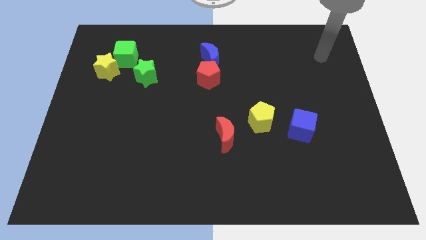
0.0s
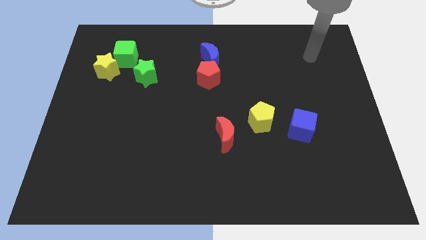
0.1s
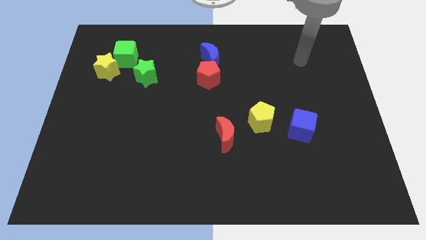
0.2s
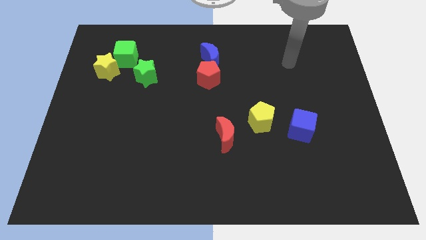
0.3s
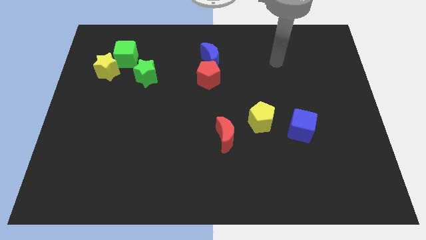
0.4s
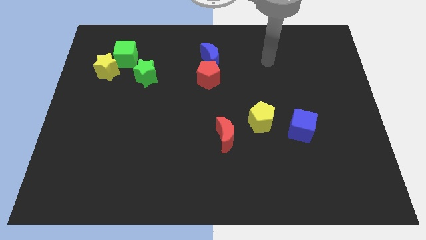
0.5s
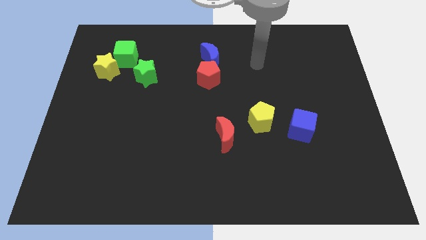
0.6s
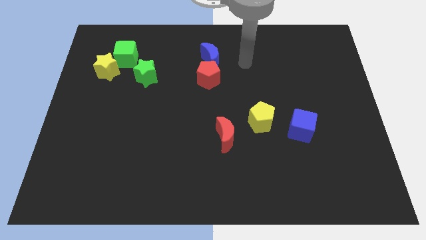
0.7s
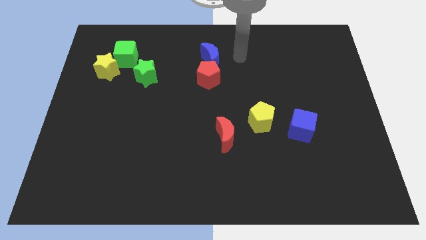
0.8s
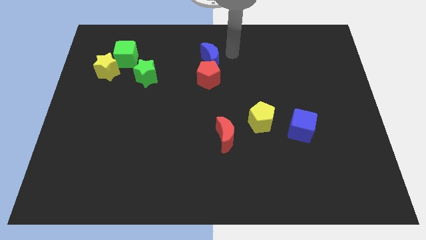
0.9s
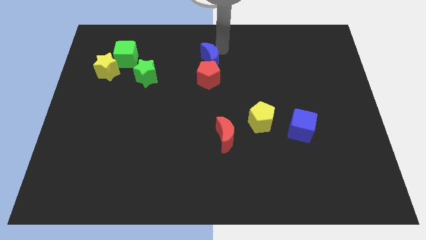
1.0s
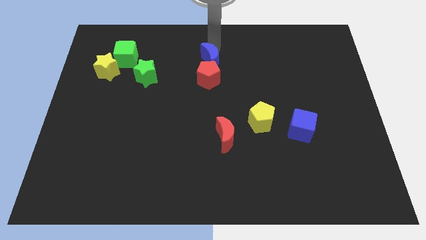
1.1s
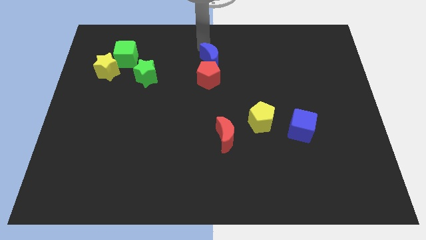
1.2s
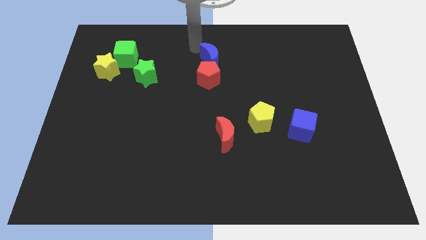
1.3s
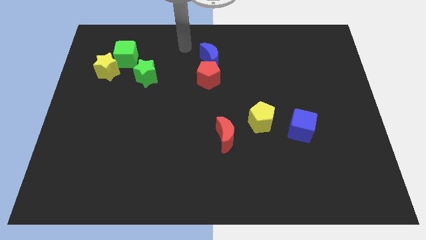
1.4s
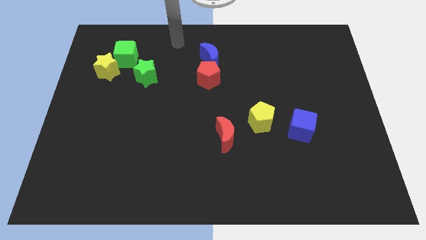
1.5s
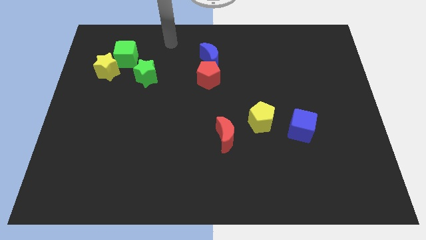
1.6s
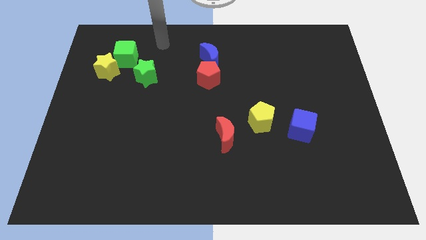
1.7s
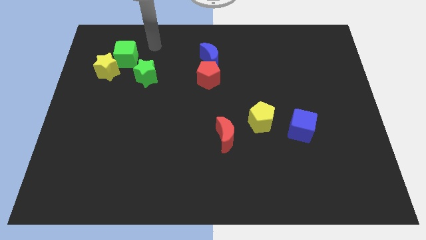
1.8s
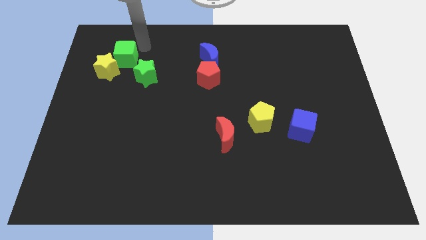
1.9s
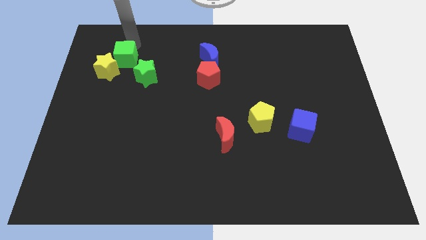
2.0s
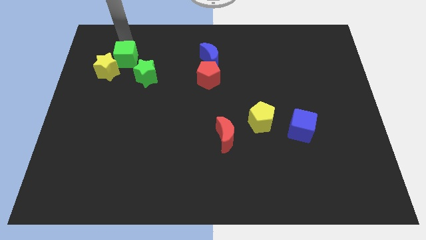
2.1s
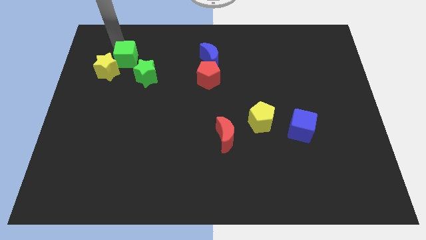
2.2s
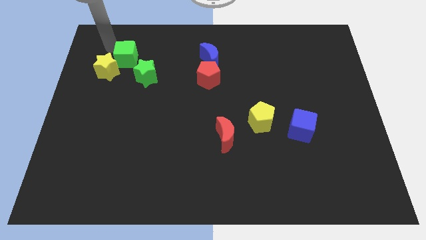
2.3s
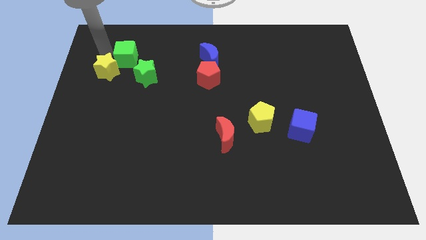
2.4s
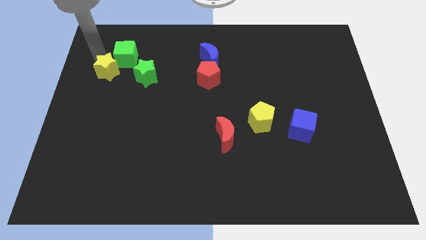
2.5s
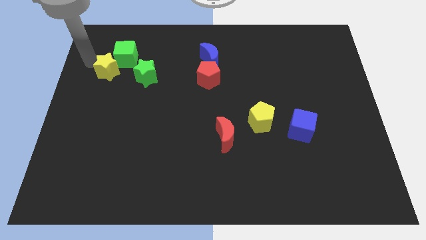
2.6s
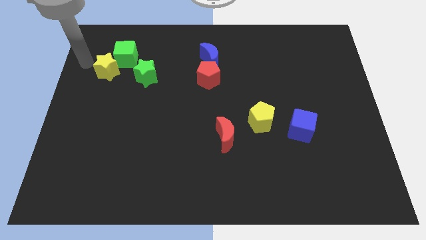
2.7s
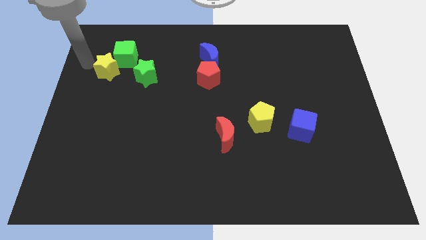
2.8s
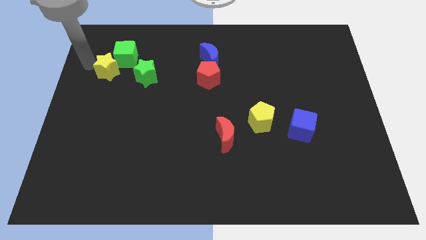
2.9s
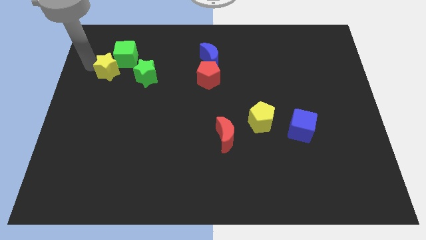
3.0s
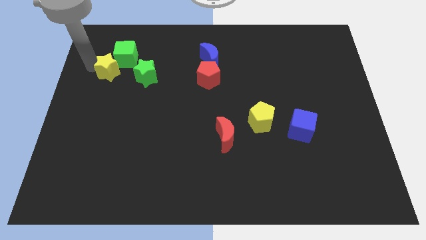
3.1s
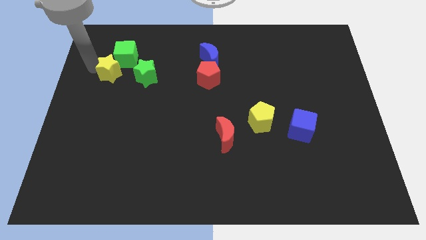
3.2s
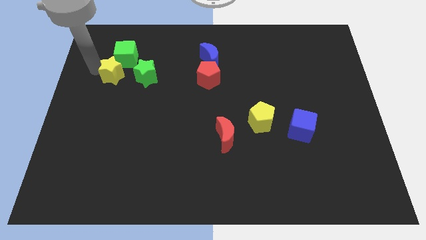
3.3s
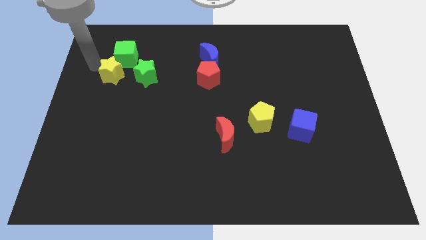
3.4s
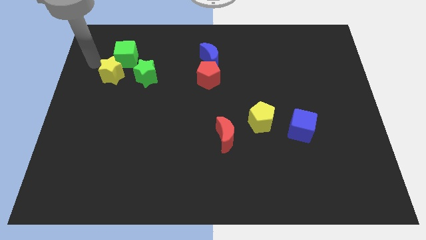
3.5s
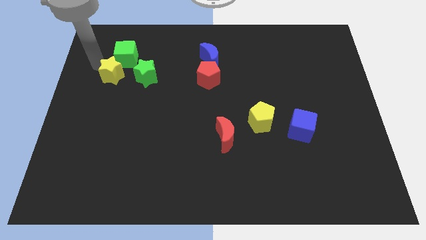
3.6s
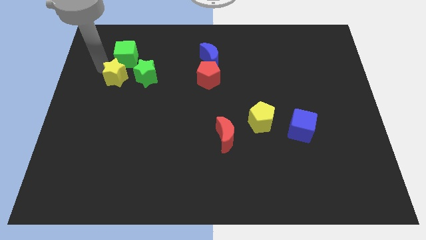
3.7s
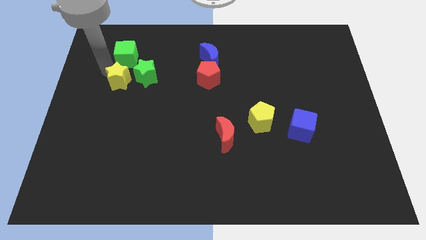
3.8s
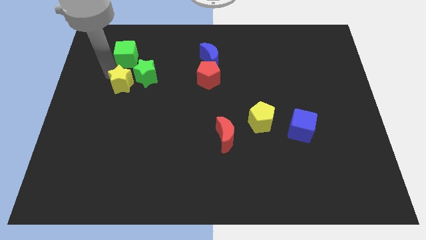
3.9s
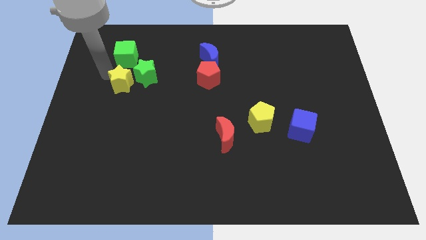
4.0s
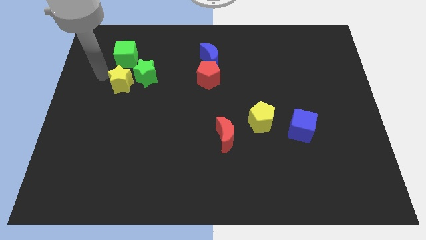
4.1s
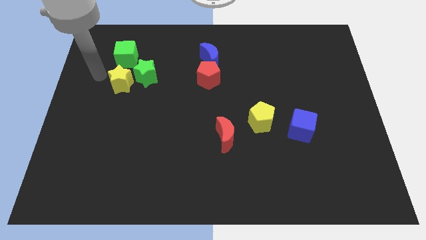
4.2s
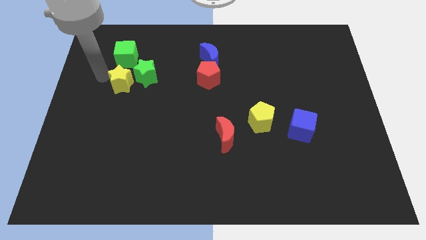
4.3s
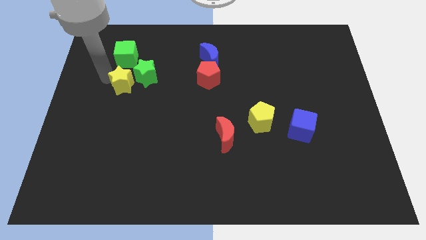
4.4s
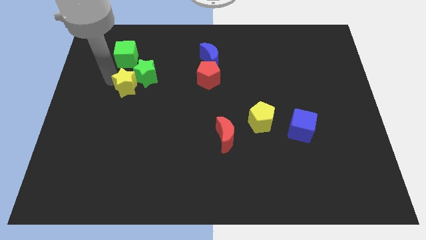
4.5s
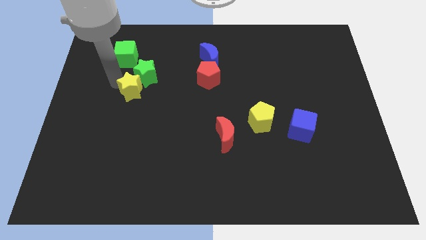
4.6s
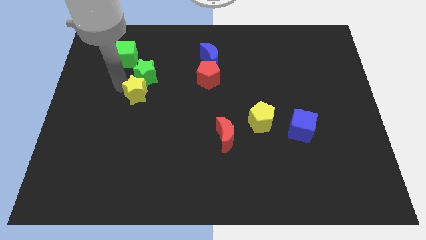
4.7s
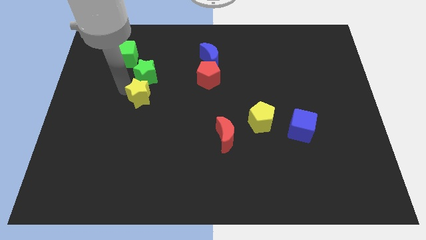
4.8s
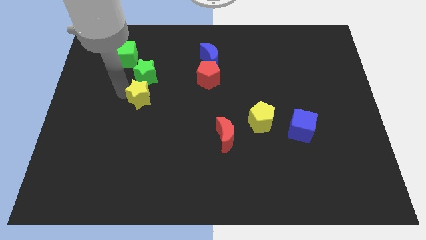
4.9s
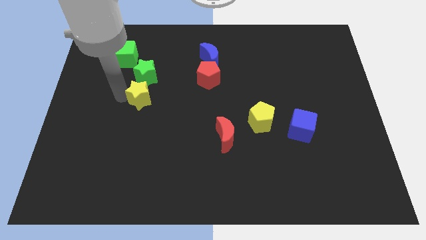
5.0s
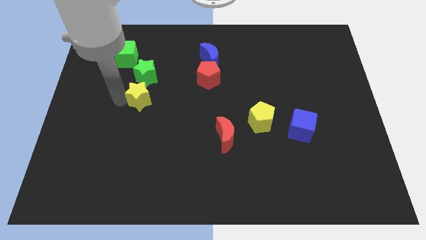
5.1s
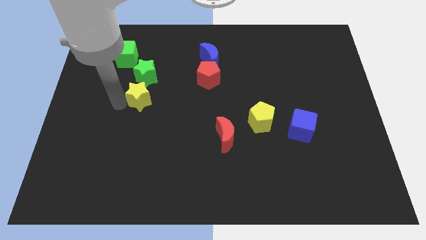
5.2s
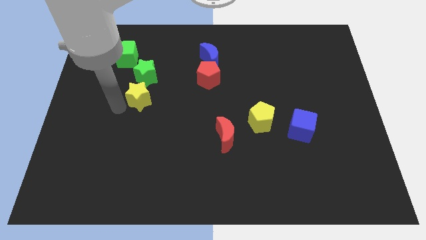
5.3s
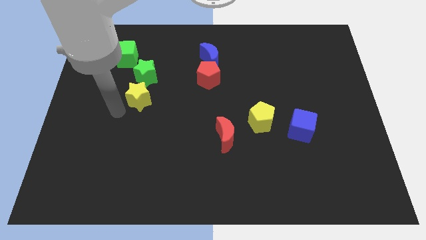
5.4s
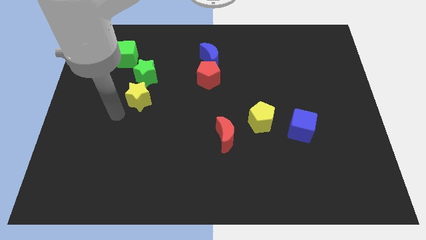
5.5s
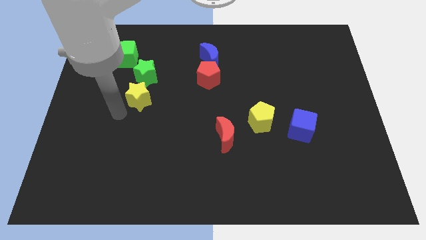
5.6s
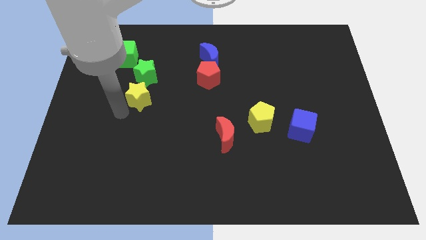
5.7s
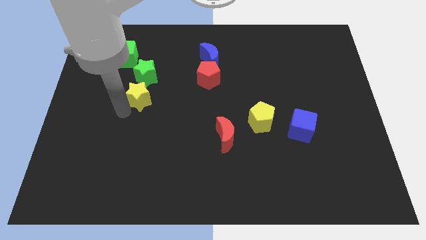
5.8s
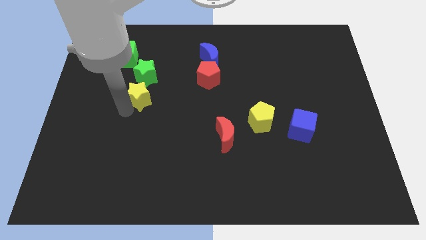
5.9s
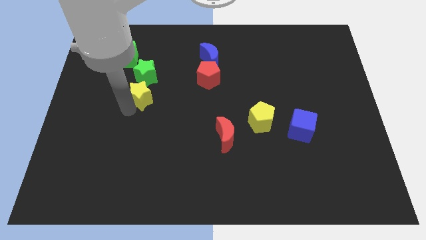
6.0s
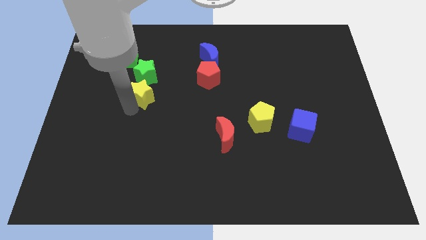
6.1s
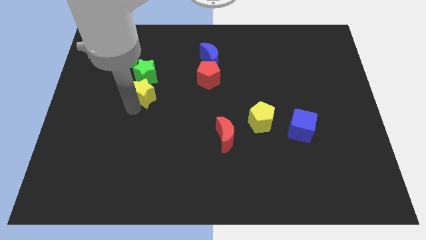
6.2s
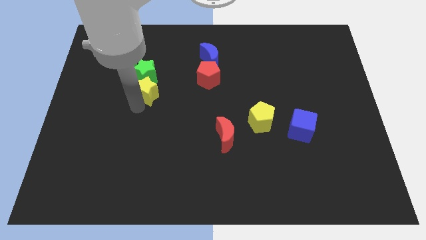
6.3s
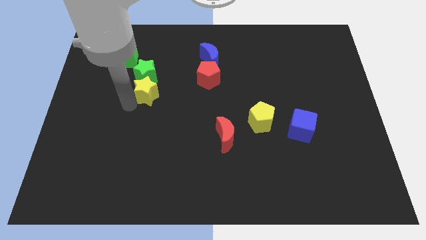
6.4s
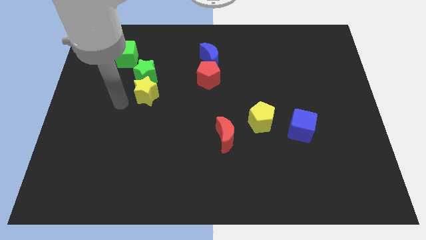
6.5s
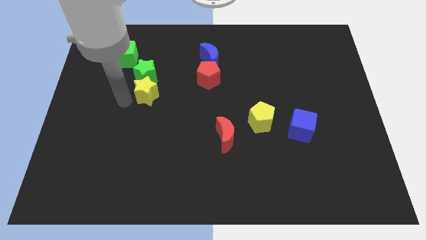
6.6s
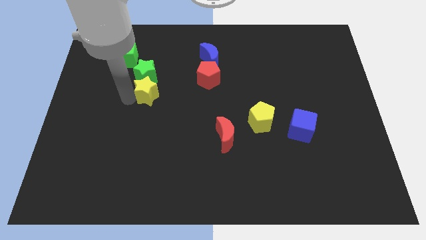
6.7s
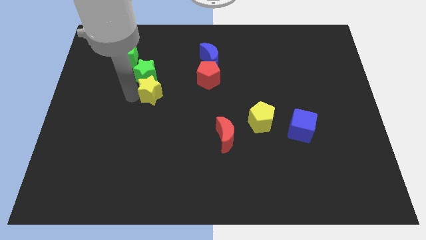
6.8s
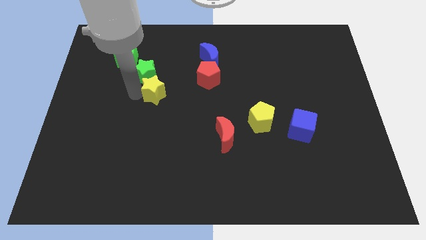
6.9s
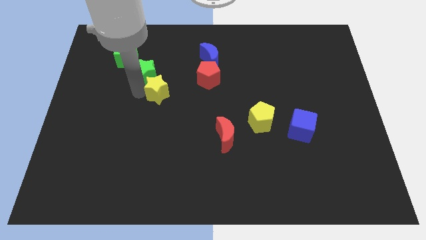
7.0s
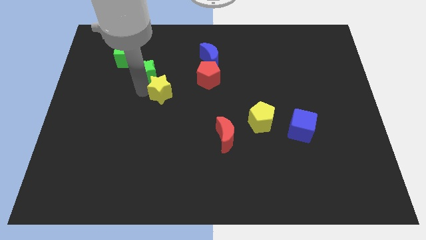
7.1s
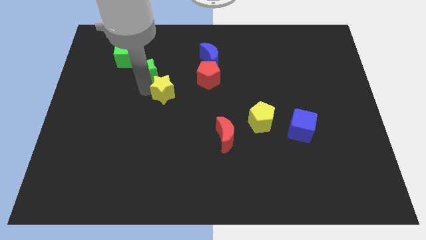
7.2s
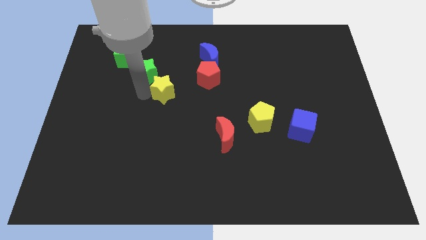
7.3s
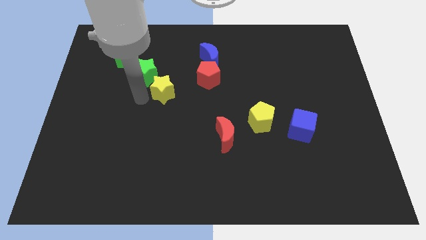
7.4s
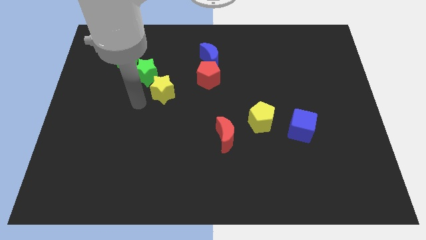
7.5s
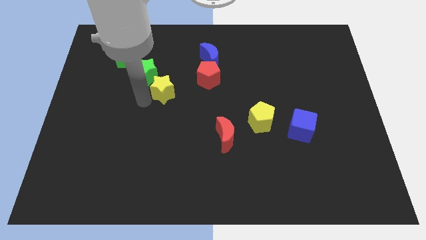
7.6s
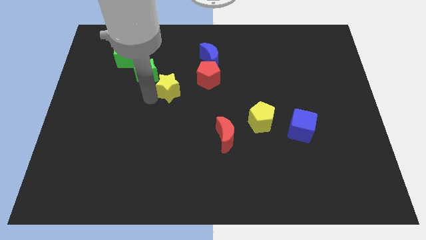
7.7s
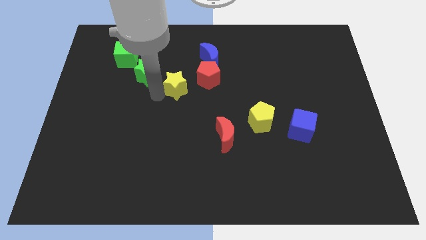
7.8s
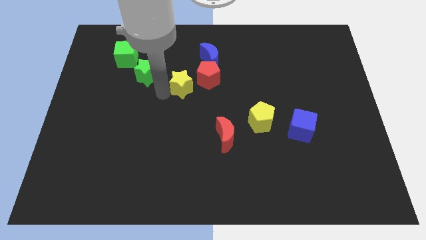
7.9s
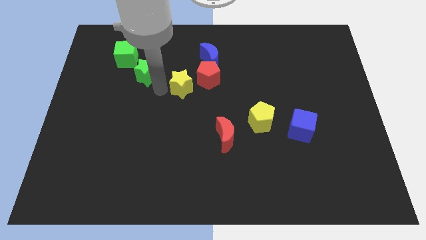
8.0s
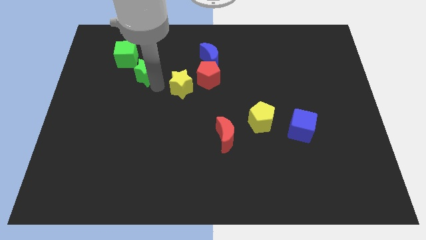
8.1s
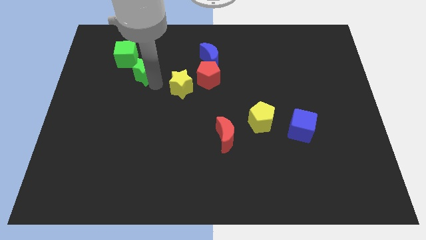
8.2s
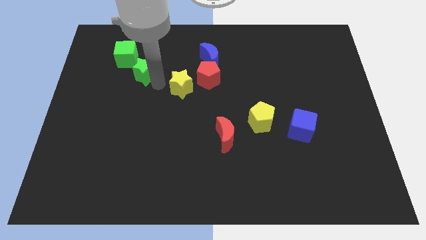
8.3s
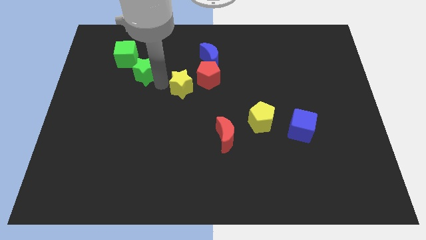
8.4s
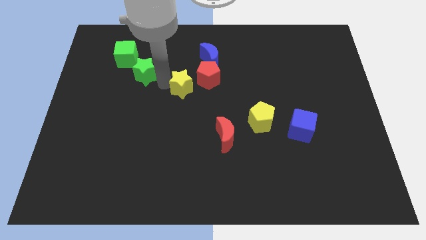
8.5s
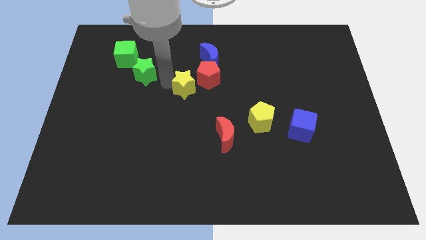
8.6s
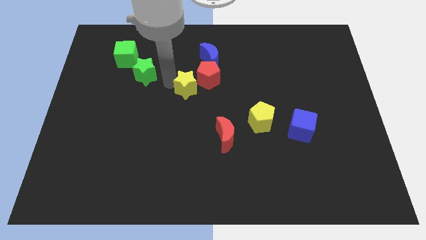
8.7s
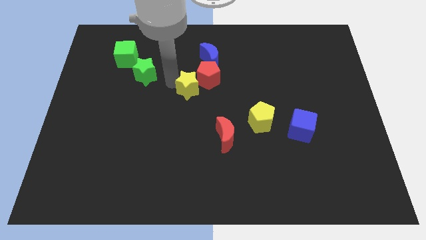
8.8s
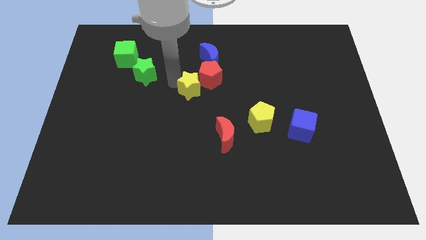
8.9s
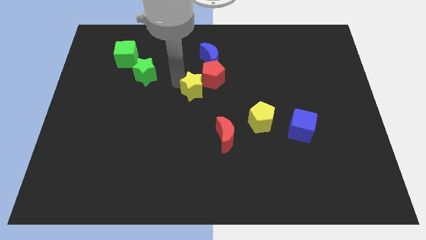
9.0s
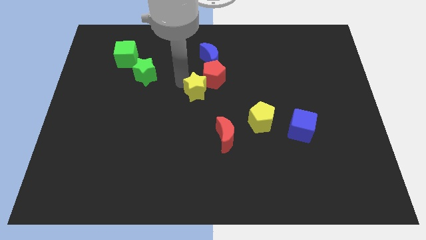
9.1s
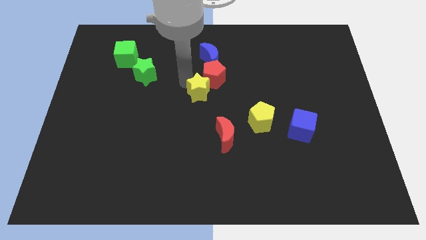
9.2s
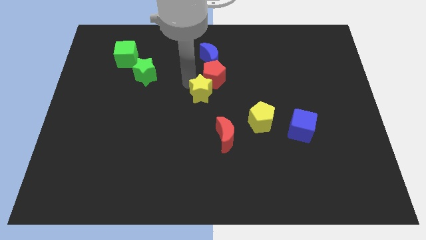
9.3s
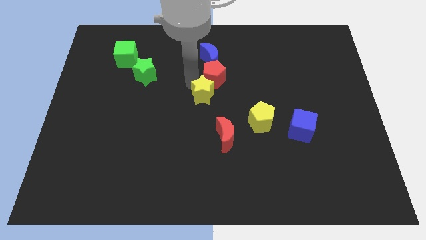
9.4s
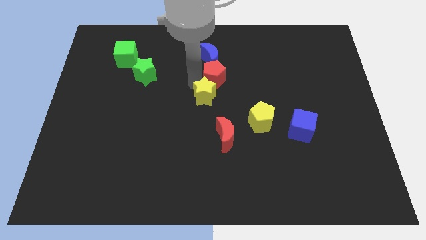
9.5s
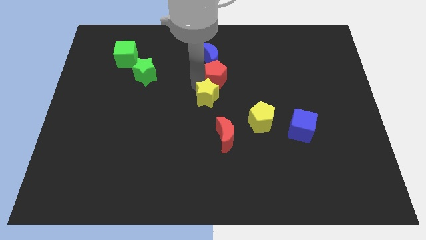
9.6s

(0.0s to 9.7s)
put the yellow star to the top side of the red moon
